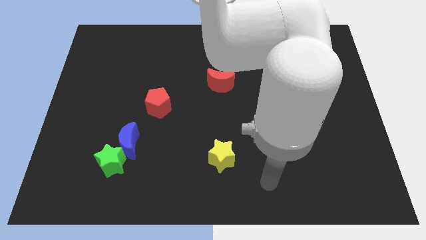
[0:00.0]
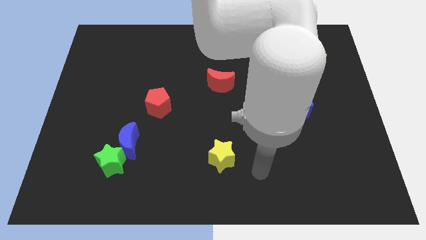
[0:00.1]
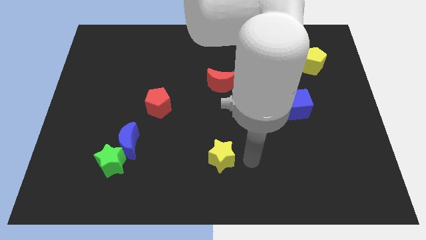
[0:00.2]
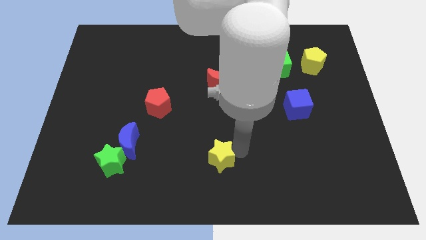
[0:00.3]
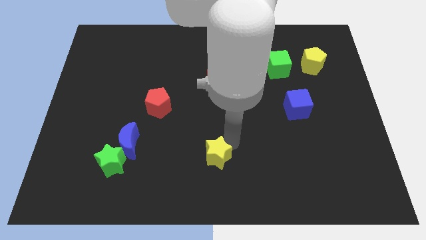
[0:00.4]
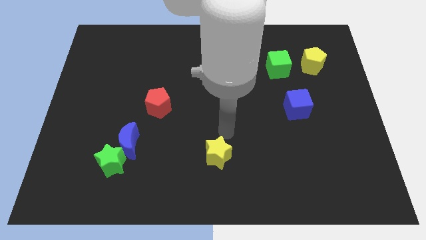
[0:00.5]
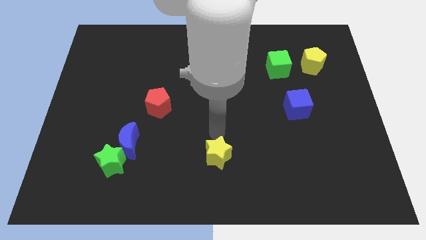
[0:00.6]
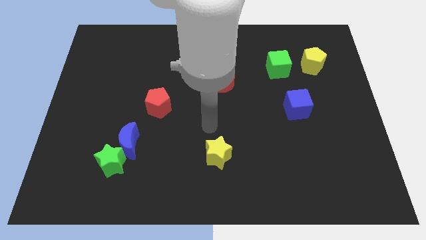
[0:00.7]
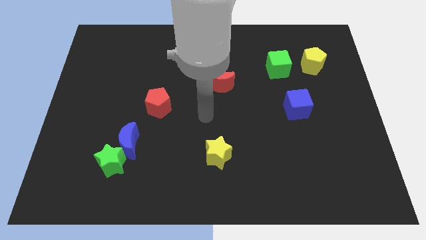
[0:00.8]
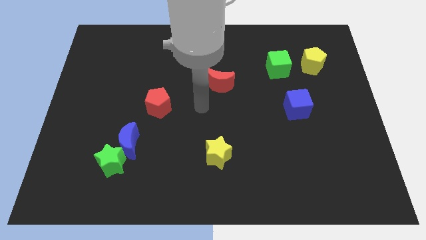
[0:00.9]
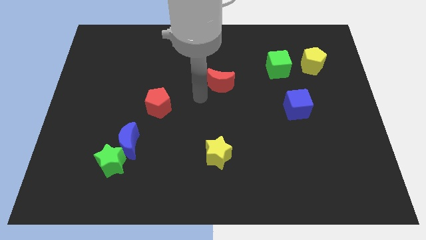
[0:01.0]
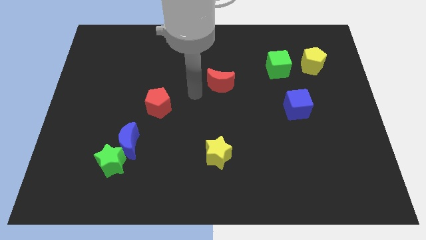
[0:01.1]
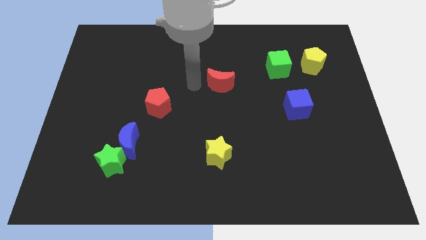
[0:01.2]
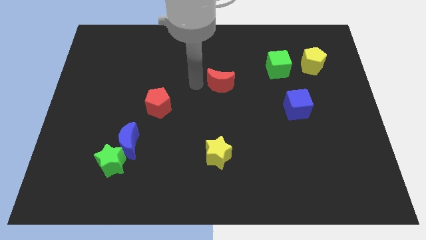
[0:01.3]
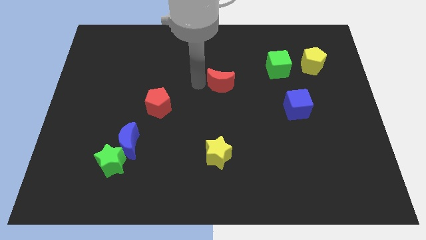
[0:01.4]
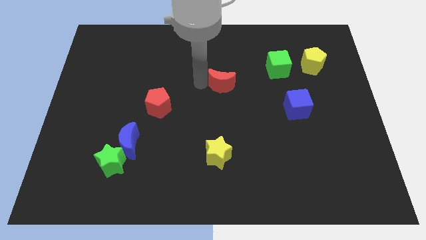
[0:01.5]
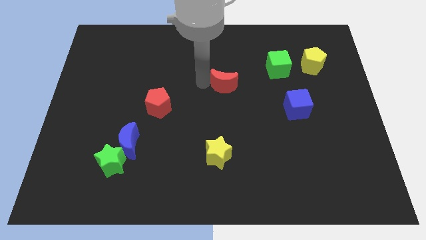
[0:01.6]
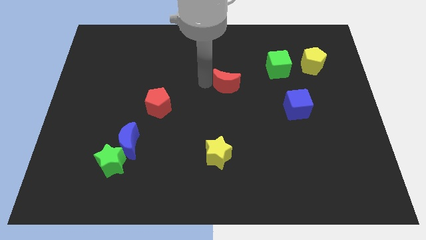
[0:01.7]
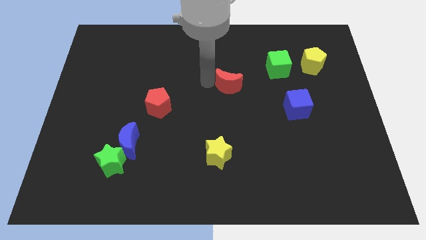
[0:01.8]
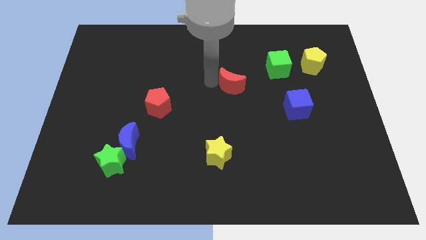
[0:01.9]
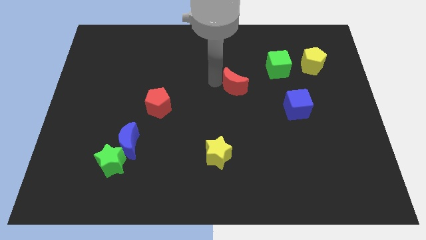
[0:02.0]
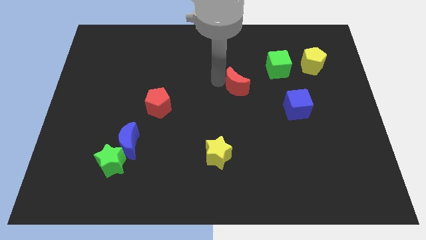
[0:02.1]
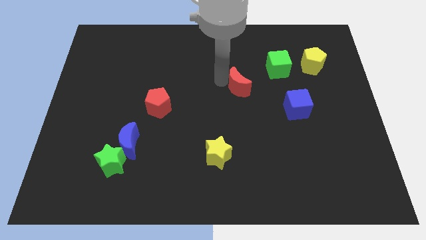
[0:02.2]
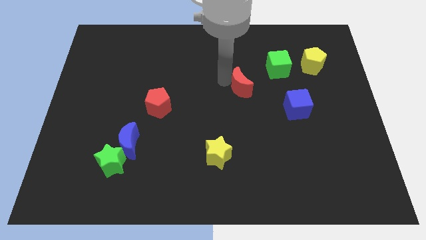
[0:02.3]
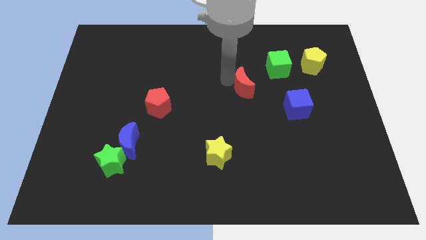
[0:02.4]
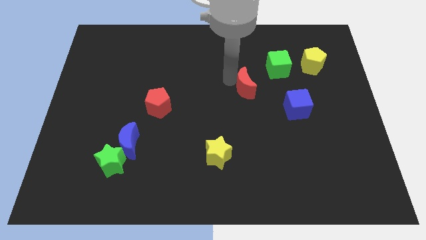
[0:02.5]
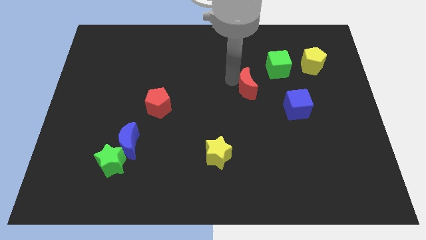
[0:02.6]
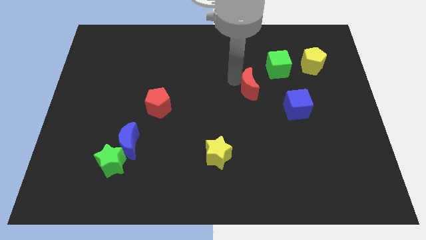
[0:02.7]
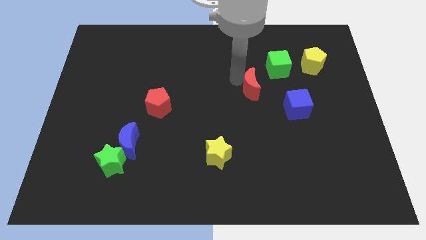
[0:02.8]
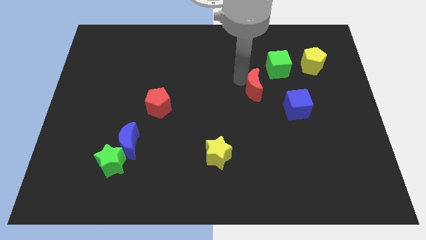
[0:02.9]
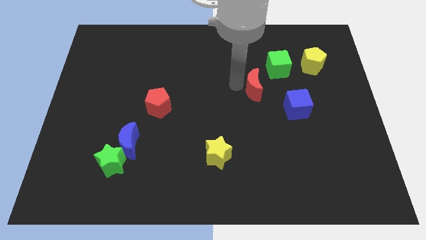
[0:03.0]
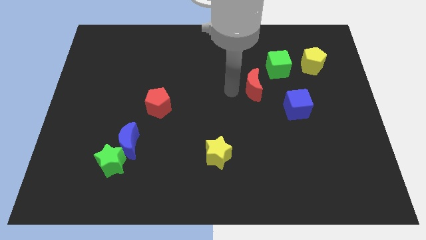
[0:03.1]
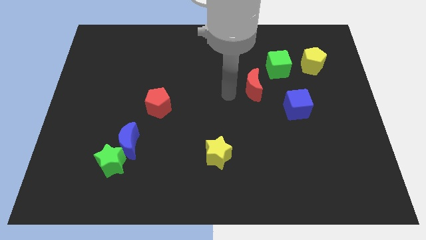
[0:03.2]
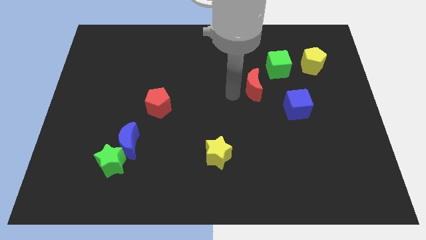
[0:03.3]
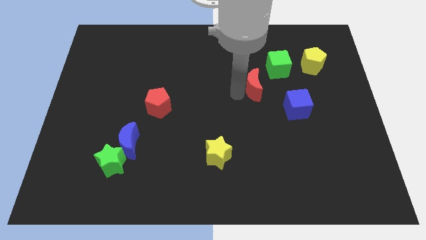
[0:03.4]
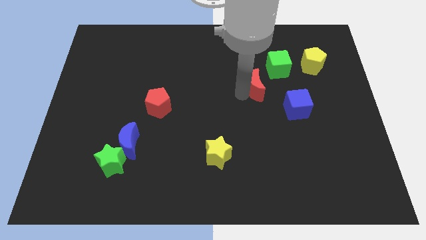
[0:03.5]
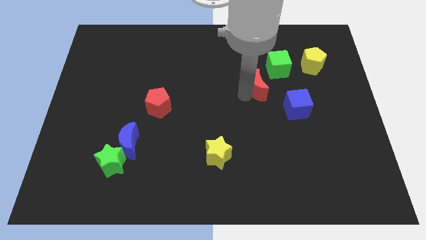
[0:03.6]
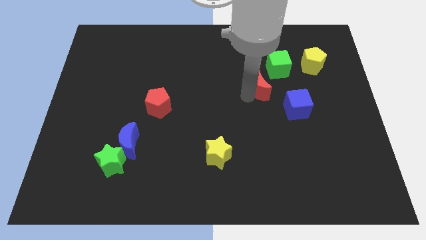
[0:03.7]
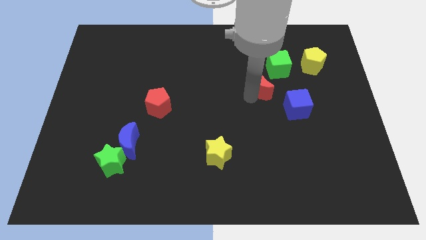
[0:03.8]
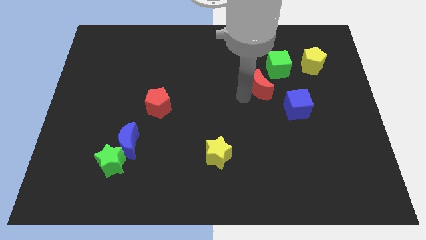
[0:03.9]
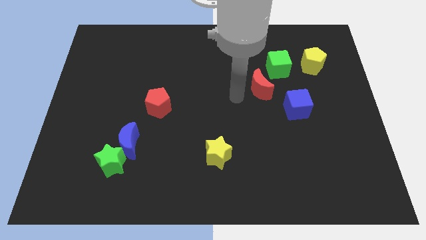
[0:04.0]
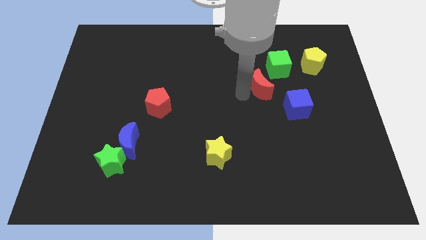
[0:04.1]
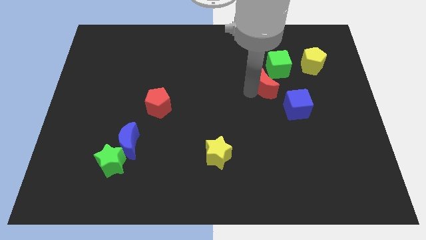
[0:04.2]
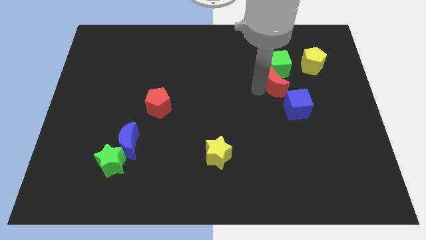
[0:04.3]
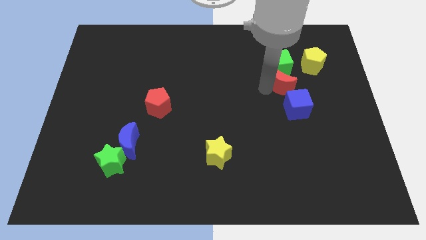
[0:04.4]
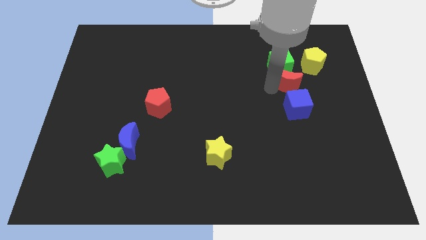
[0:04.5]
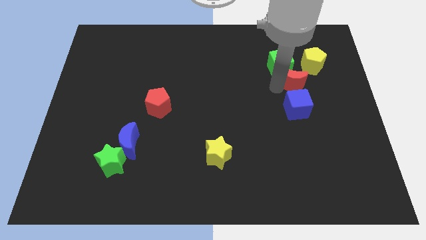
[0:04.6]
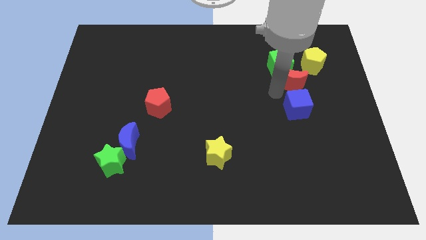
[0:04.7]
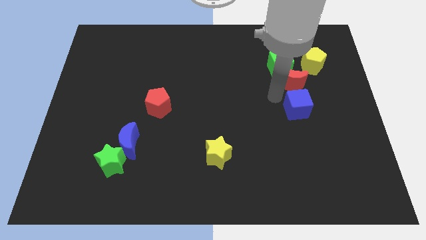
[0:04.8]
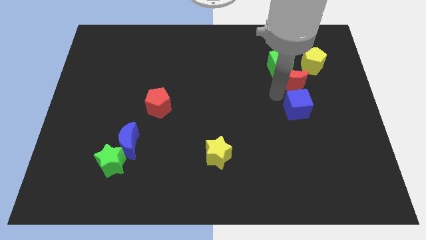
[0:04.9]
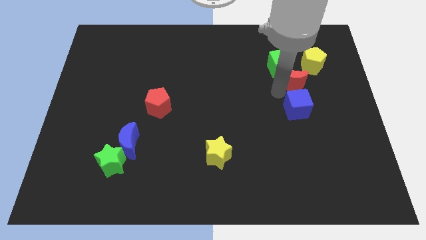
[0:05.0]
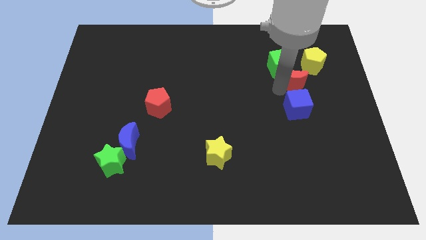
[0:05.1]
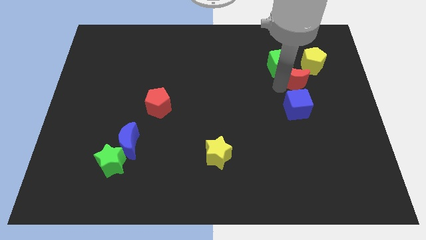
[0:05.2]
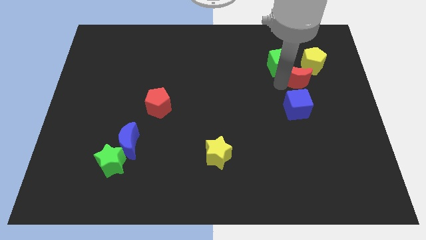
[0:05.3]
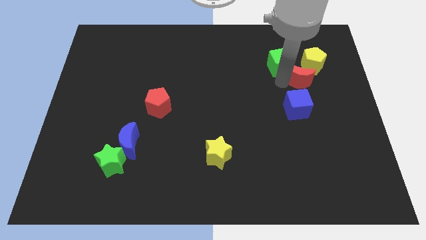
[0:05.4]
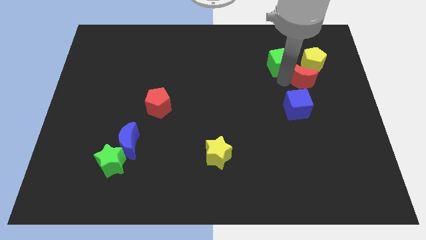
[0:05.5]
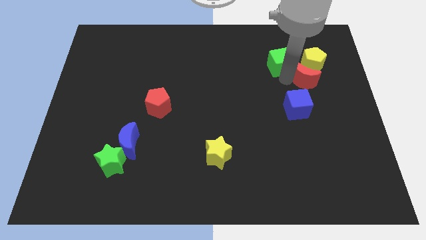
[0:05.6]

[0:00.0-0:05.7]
move the red moon close to the yellow pentagon

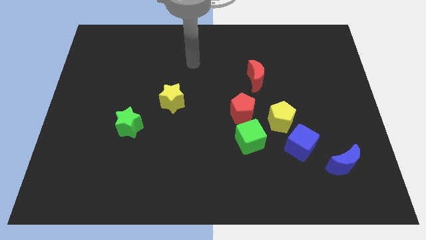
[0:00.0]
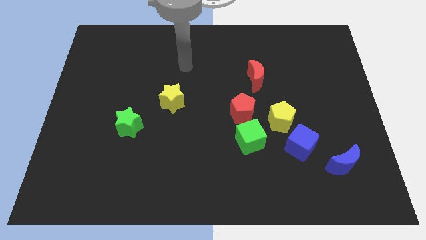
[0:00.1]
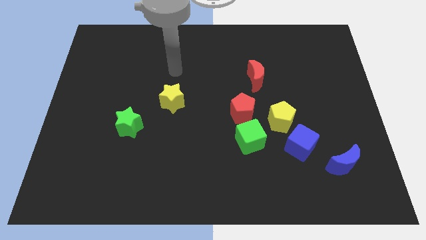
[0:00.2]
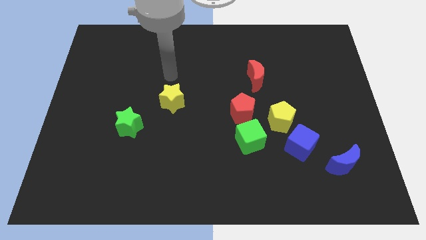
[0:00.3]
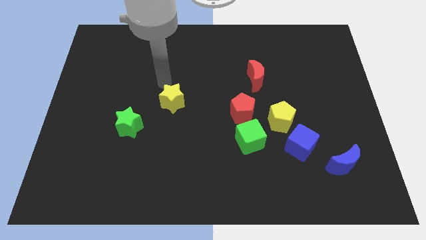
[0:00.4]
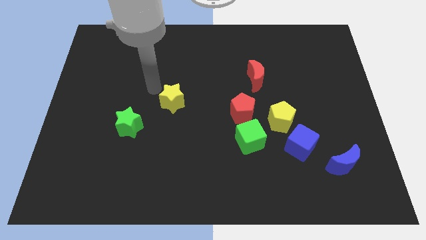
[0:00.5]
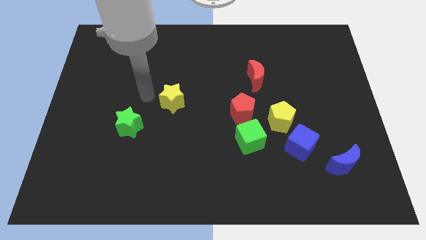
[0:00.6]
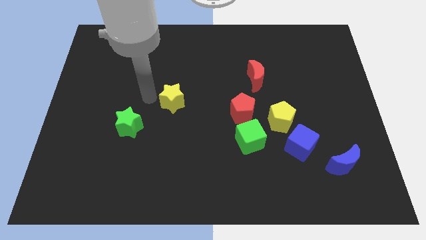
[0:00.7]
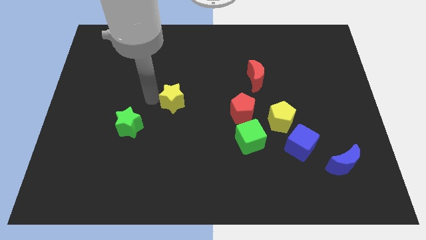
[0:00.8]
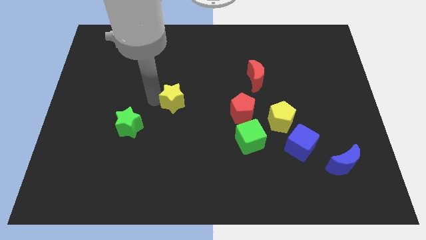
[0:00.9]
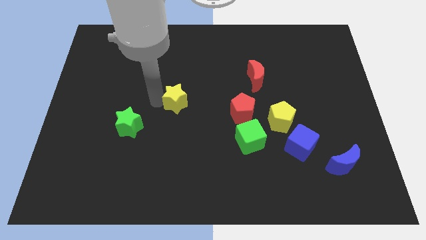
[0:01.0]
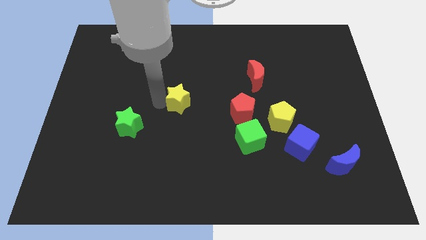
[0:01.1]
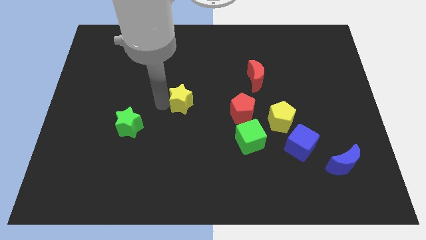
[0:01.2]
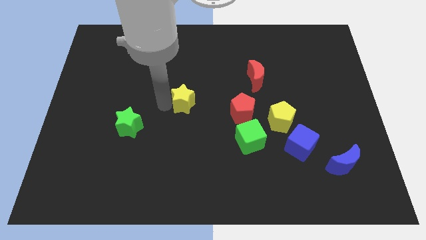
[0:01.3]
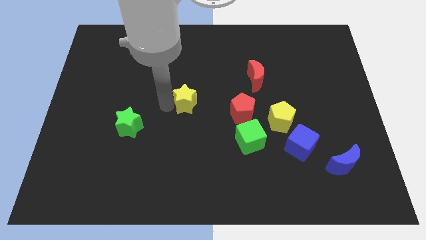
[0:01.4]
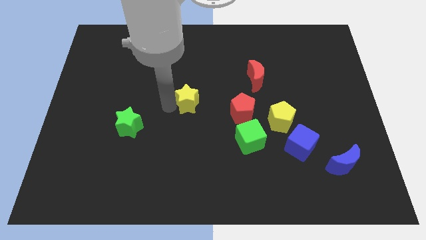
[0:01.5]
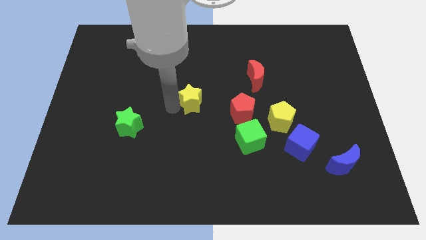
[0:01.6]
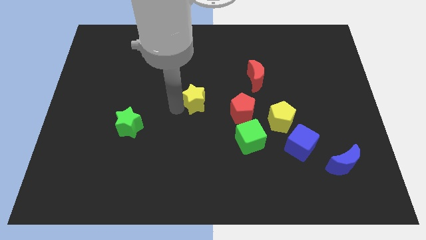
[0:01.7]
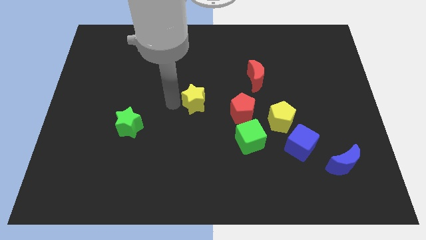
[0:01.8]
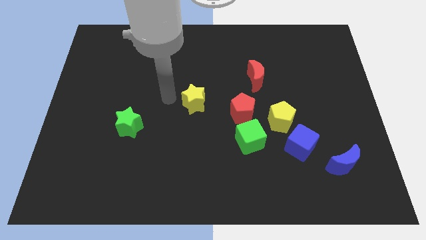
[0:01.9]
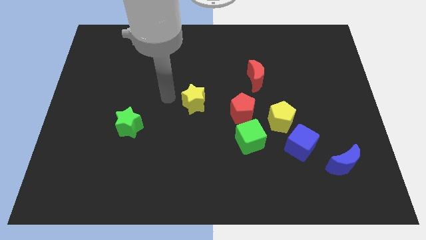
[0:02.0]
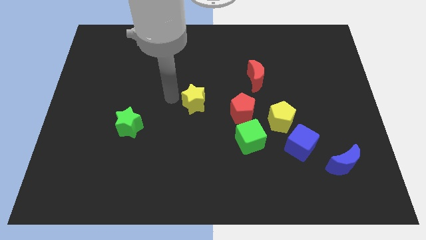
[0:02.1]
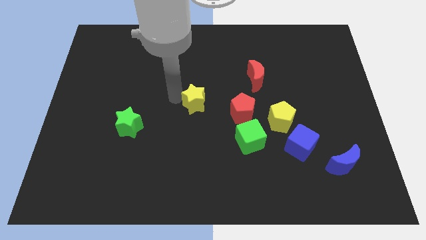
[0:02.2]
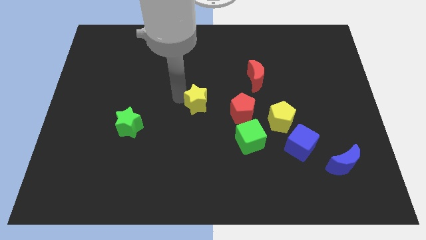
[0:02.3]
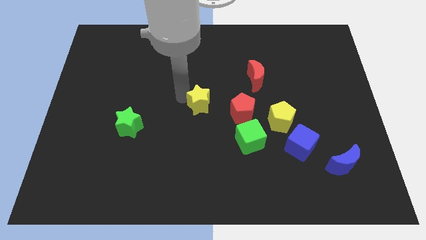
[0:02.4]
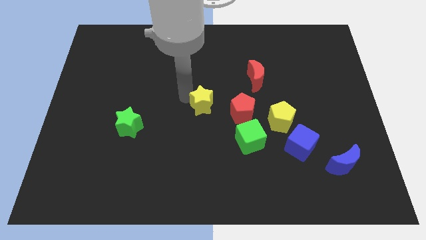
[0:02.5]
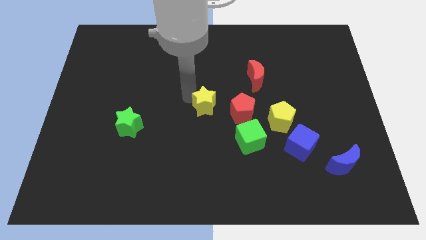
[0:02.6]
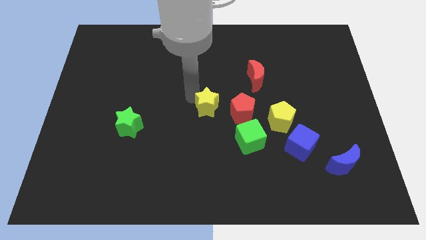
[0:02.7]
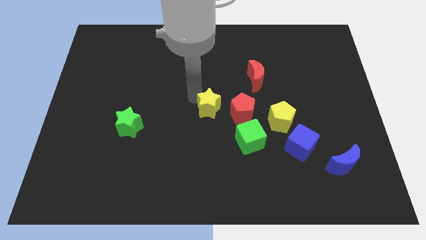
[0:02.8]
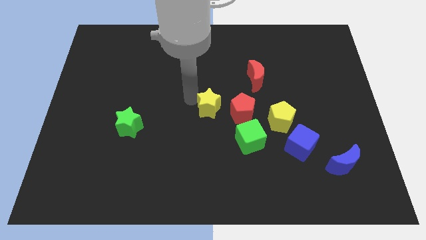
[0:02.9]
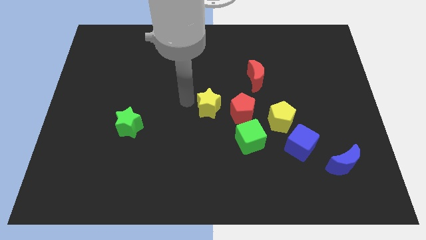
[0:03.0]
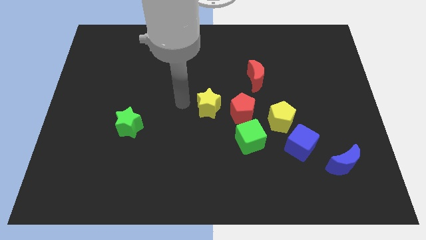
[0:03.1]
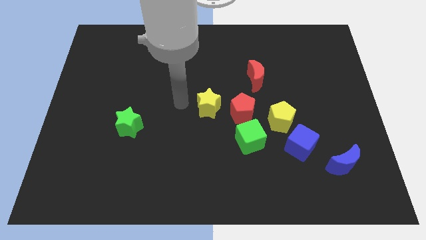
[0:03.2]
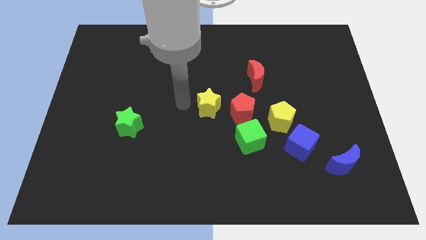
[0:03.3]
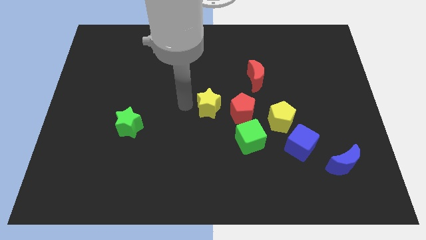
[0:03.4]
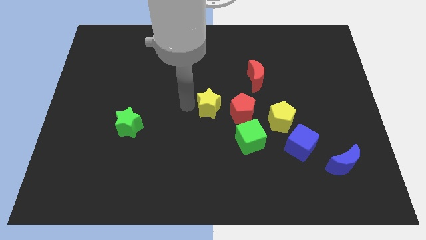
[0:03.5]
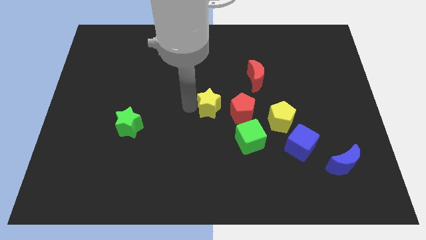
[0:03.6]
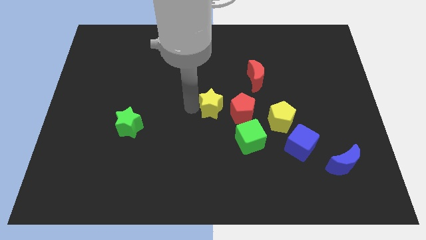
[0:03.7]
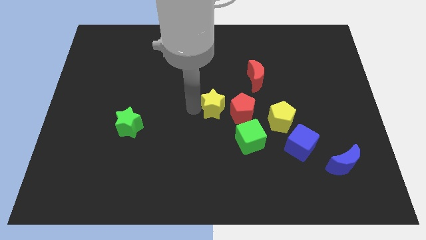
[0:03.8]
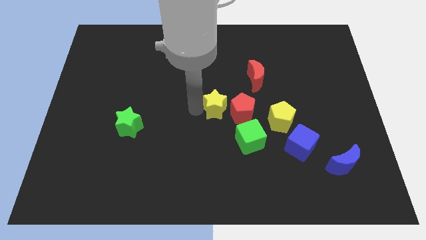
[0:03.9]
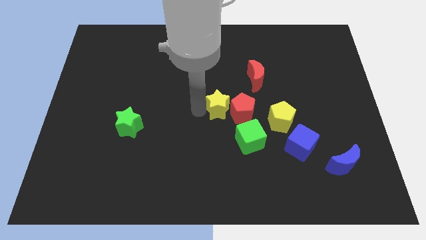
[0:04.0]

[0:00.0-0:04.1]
slide the yellow star to the red pentagon
